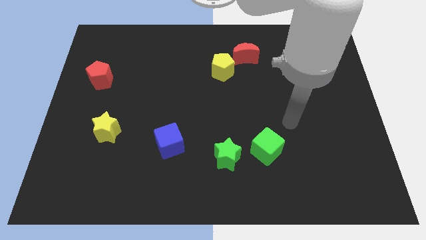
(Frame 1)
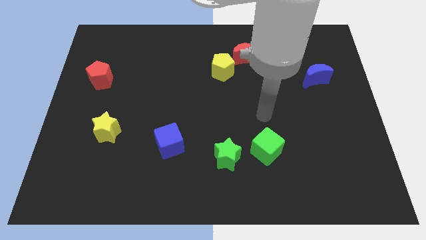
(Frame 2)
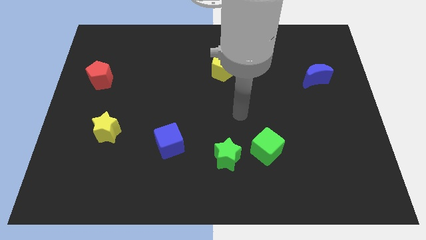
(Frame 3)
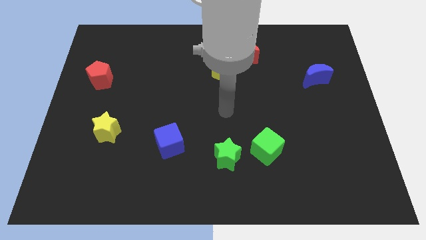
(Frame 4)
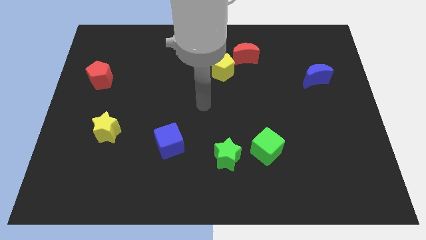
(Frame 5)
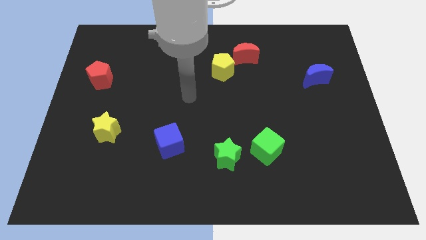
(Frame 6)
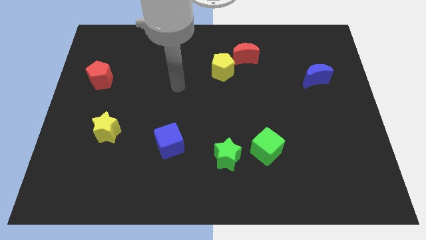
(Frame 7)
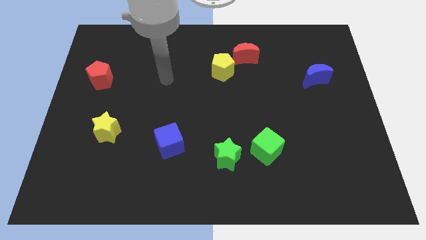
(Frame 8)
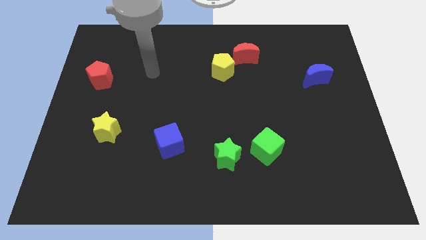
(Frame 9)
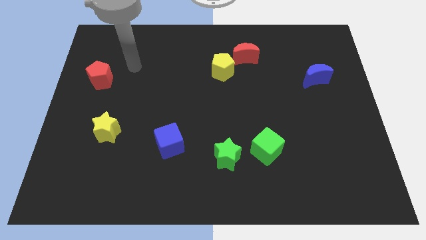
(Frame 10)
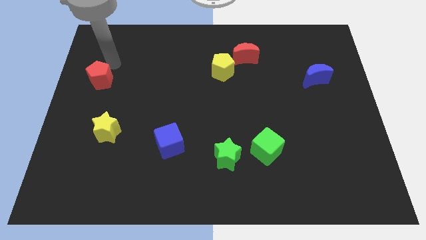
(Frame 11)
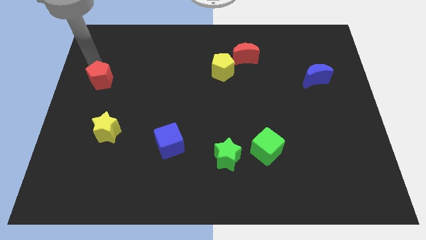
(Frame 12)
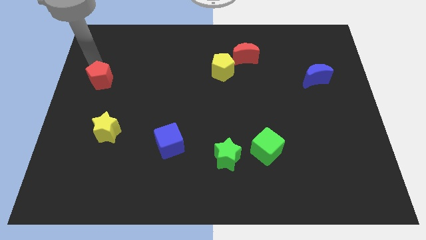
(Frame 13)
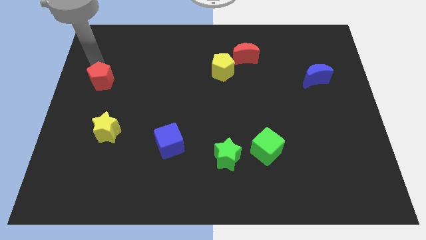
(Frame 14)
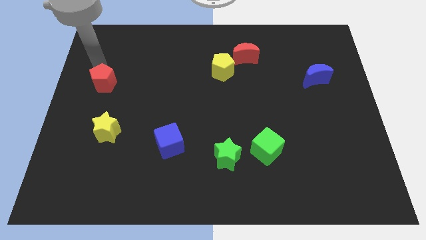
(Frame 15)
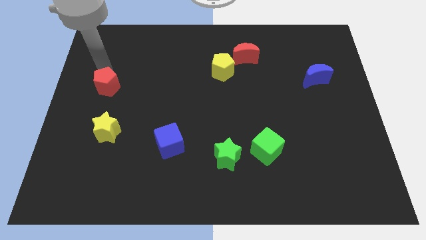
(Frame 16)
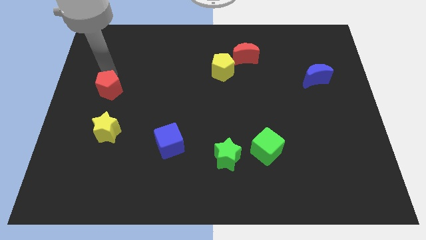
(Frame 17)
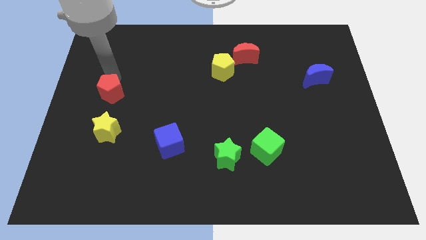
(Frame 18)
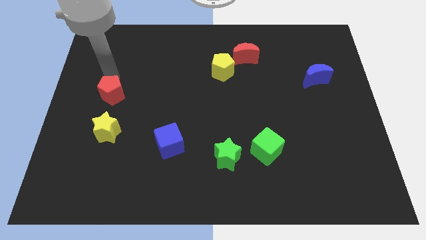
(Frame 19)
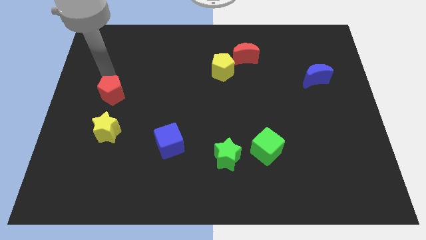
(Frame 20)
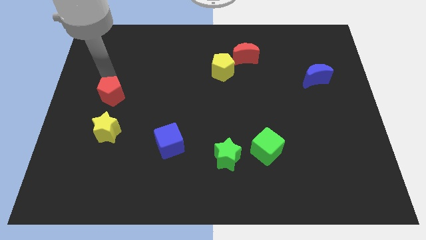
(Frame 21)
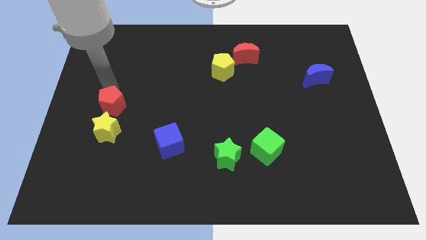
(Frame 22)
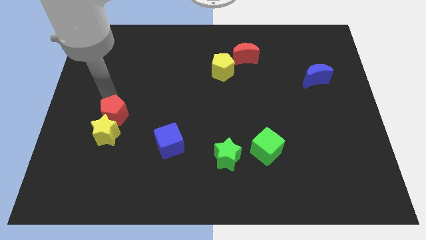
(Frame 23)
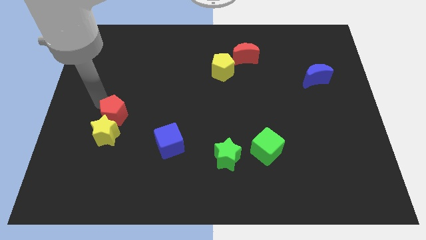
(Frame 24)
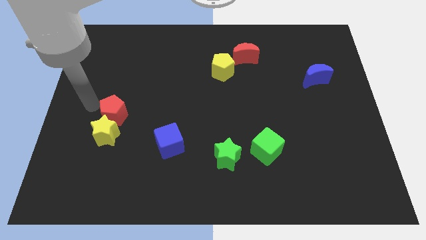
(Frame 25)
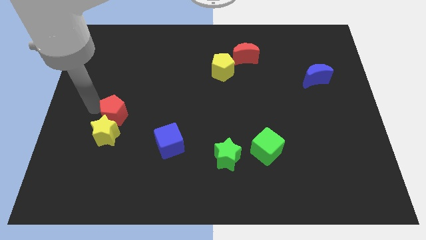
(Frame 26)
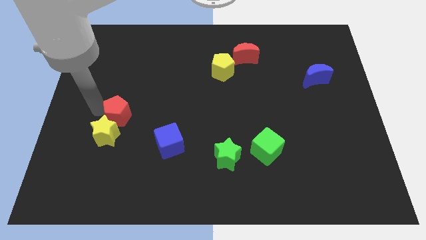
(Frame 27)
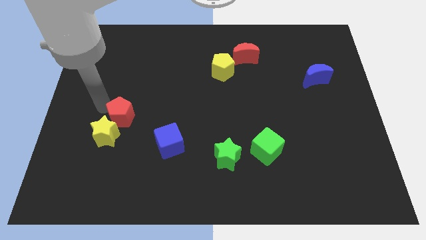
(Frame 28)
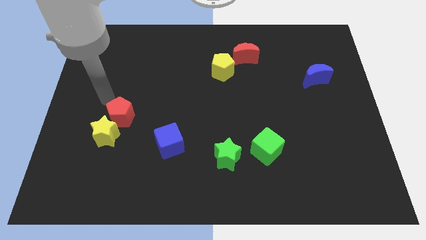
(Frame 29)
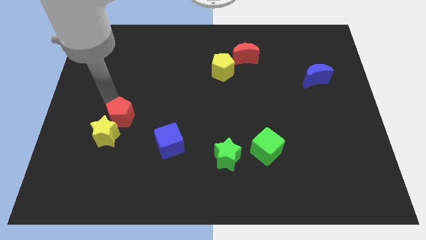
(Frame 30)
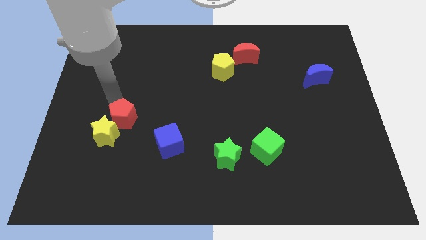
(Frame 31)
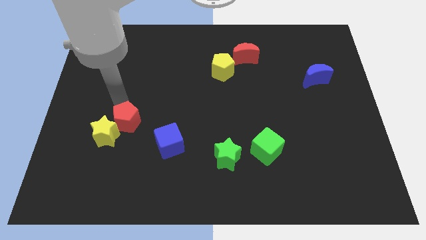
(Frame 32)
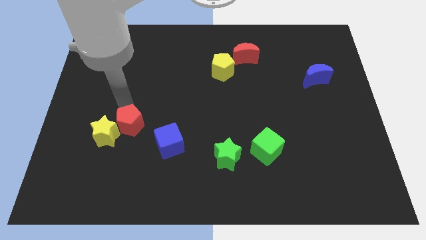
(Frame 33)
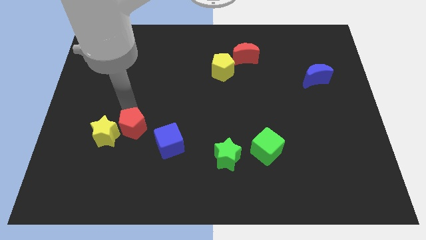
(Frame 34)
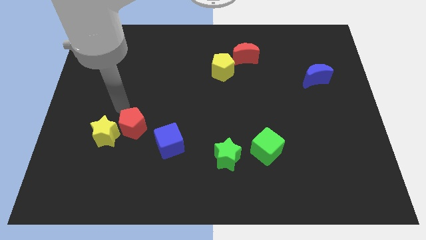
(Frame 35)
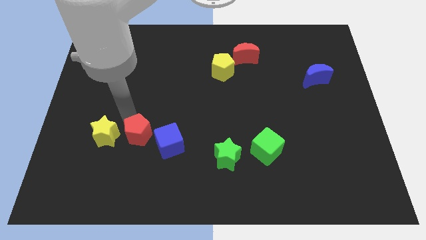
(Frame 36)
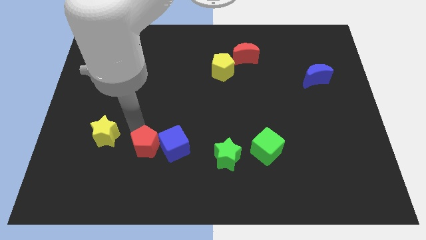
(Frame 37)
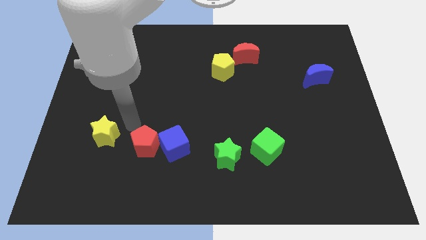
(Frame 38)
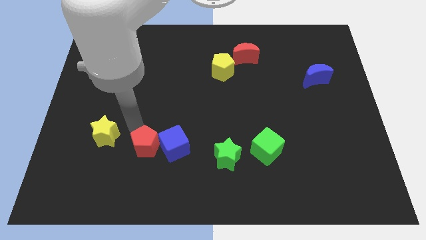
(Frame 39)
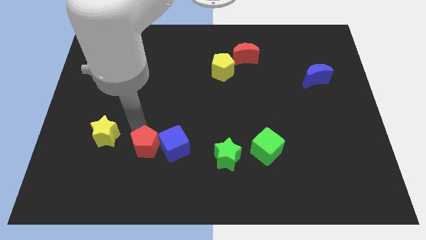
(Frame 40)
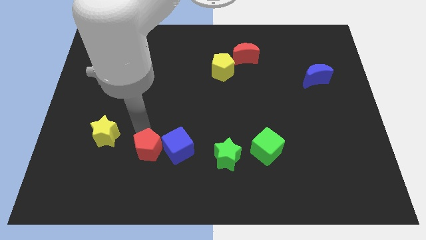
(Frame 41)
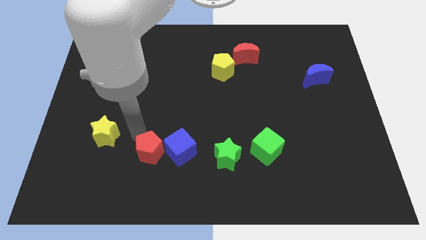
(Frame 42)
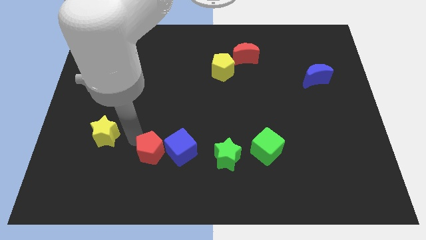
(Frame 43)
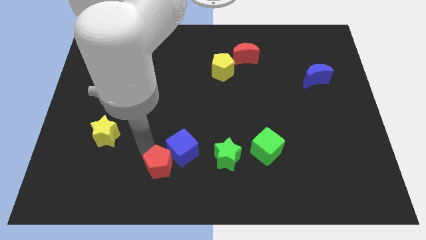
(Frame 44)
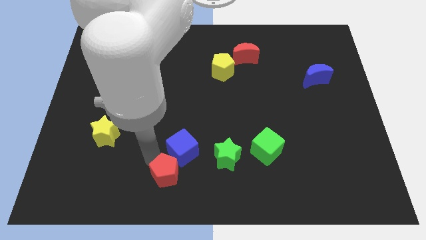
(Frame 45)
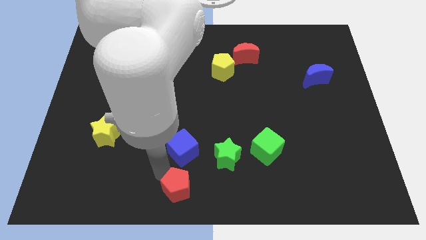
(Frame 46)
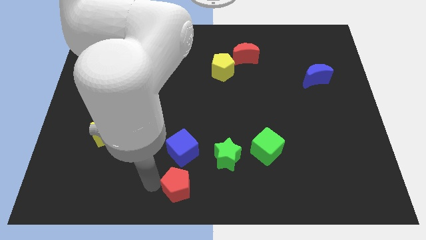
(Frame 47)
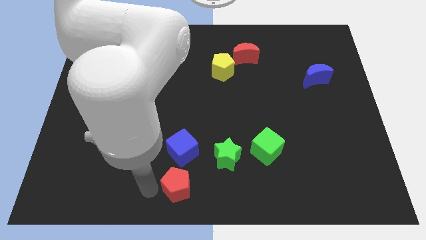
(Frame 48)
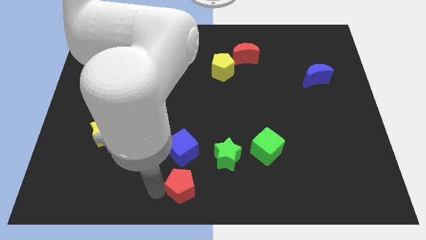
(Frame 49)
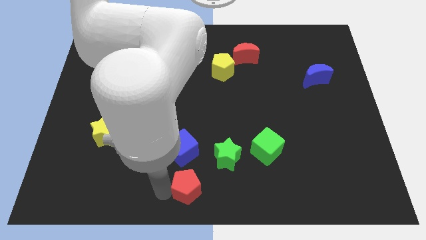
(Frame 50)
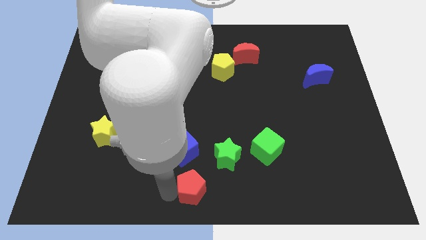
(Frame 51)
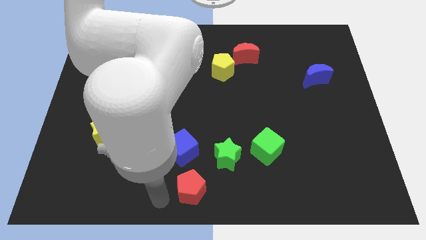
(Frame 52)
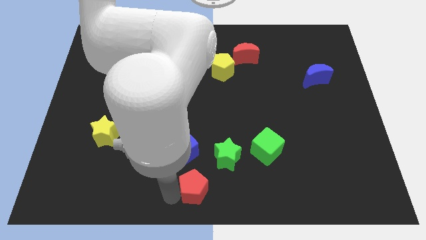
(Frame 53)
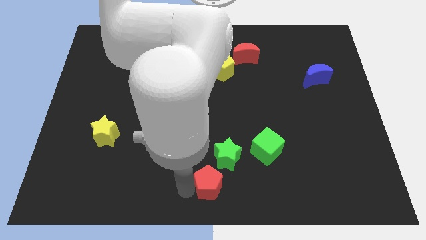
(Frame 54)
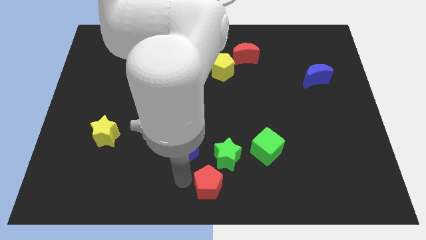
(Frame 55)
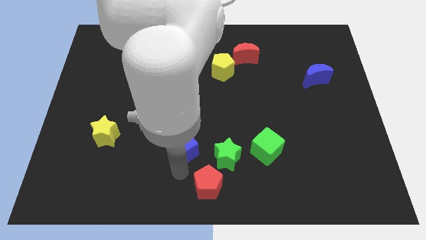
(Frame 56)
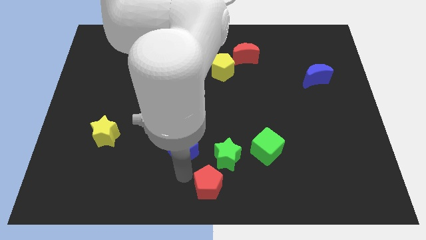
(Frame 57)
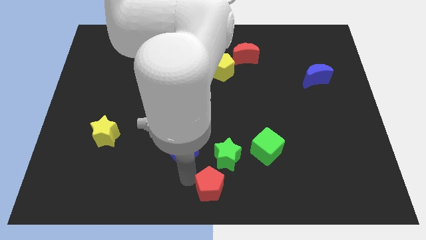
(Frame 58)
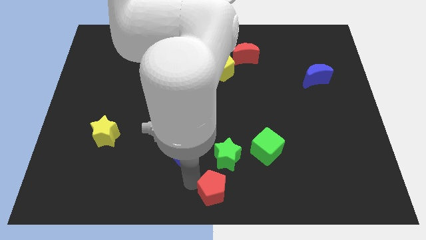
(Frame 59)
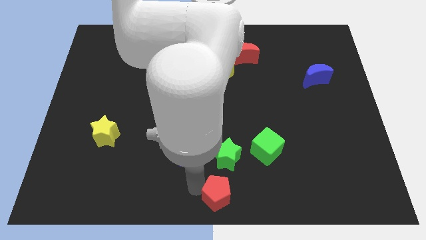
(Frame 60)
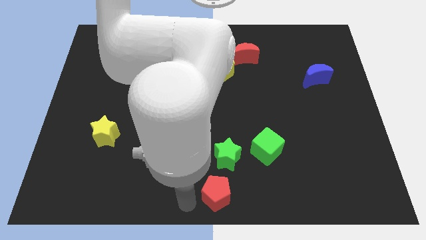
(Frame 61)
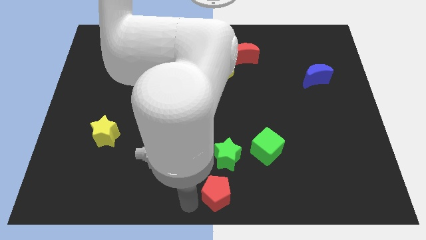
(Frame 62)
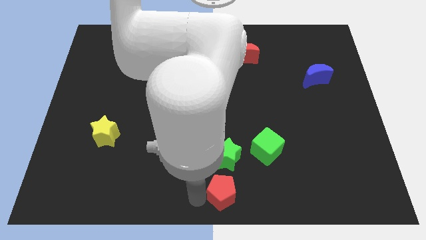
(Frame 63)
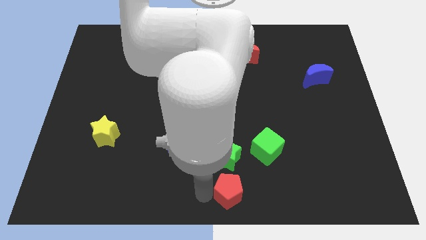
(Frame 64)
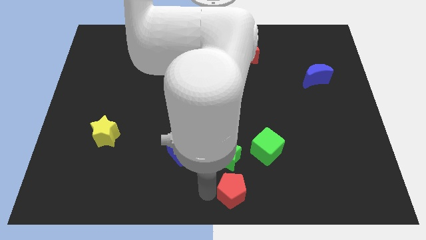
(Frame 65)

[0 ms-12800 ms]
push the red pentagon to the bottom right side of the green star

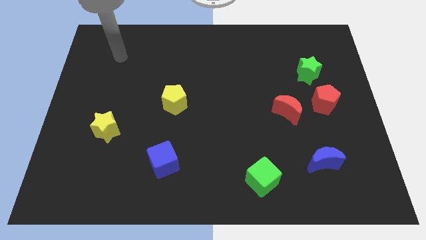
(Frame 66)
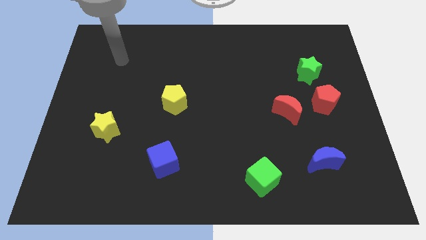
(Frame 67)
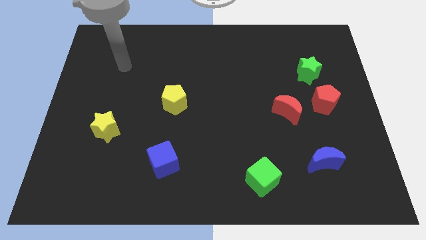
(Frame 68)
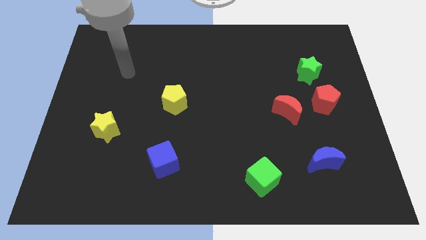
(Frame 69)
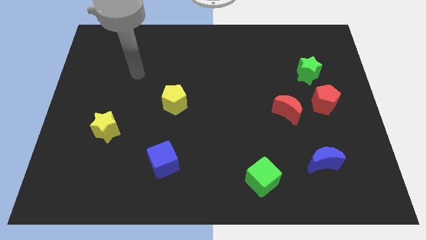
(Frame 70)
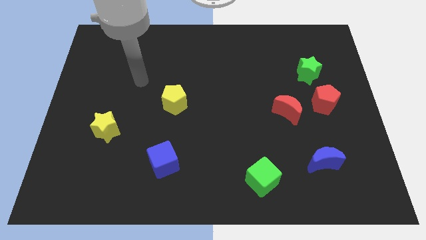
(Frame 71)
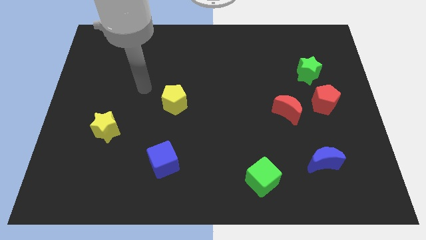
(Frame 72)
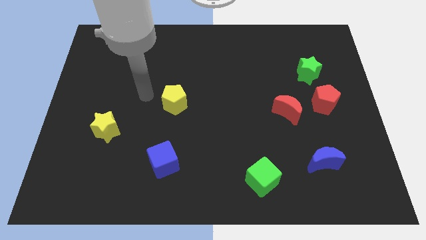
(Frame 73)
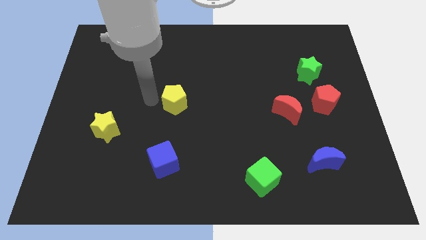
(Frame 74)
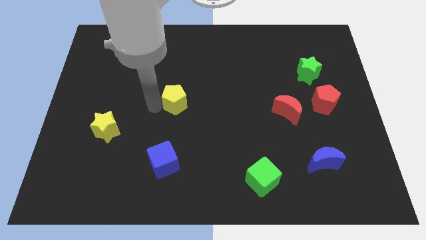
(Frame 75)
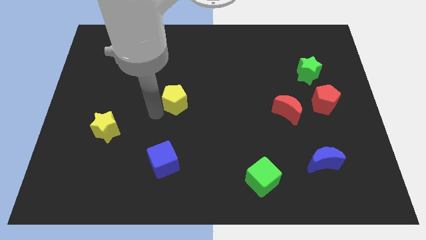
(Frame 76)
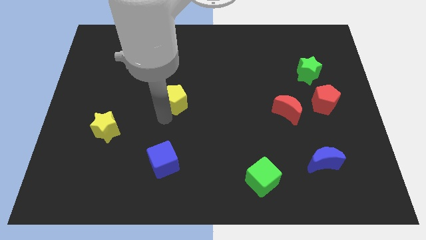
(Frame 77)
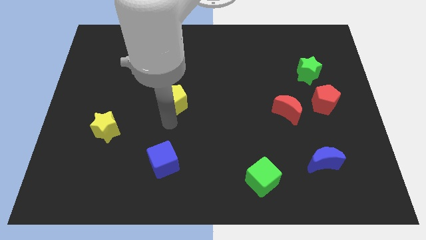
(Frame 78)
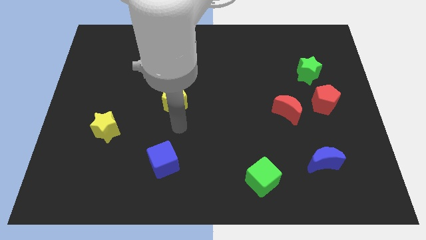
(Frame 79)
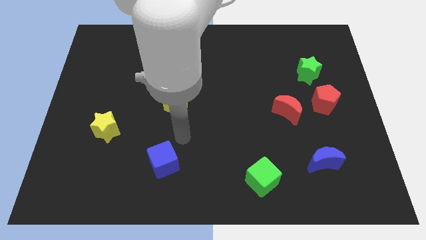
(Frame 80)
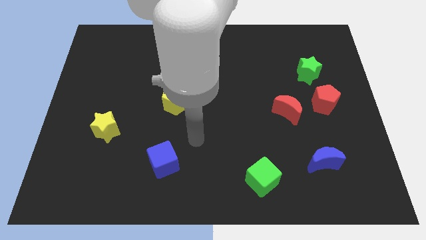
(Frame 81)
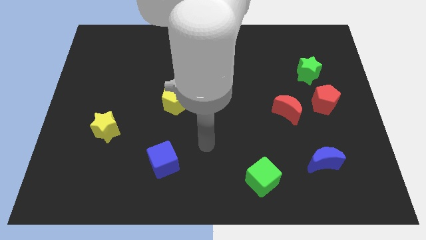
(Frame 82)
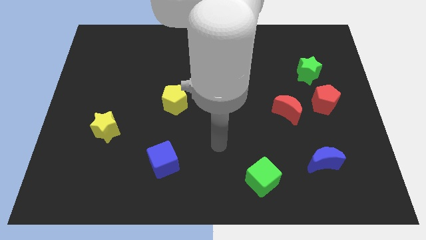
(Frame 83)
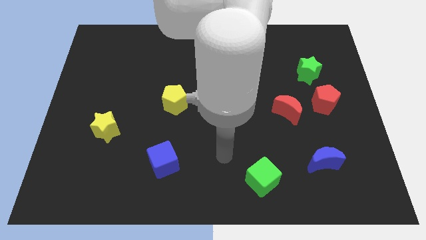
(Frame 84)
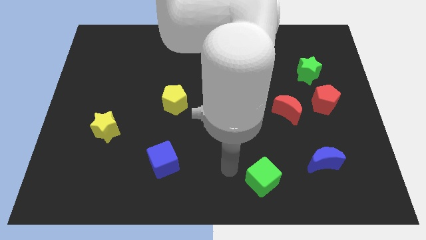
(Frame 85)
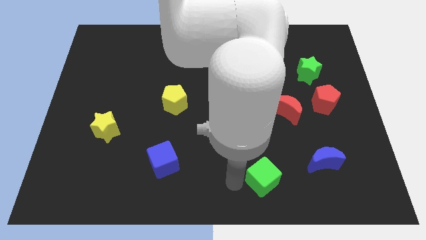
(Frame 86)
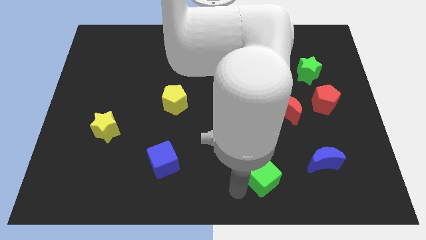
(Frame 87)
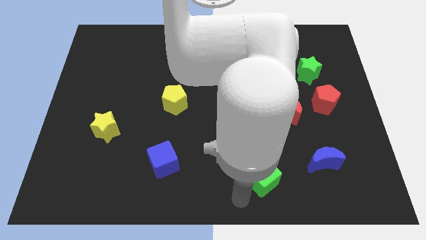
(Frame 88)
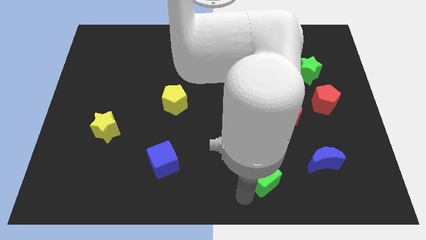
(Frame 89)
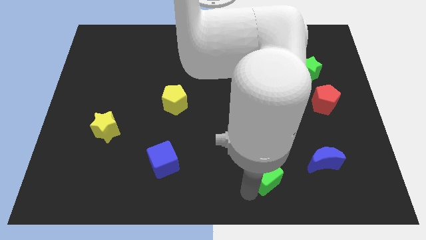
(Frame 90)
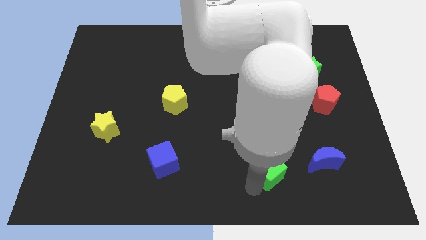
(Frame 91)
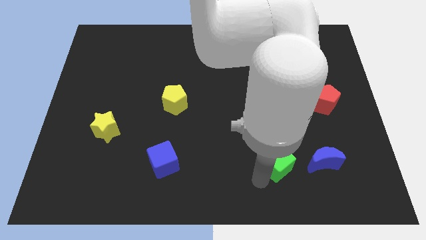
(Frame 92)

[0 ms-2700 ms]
push the green cube to the bottom of the red moon
